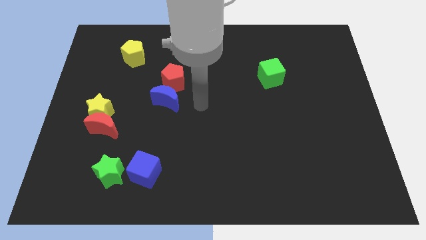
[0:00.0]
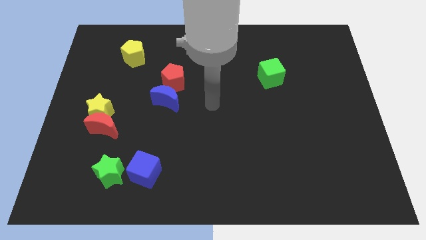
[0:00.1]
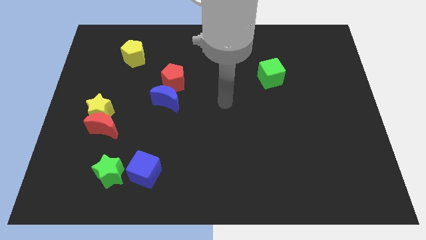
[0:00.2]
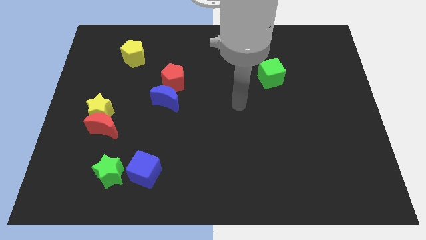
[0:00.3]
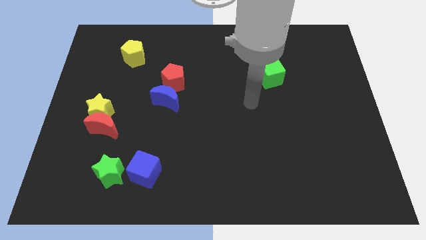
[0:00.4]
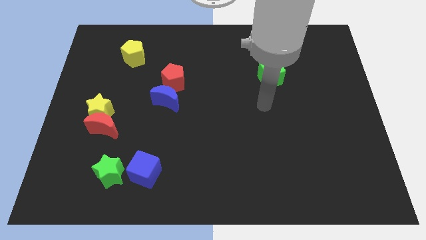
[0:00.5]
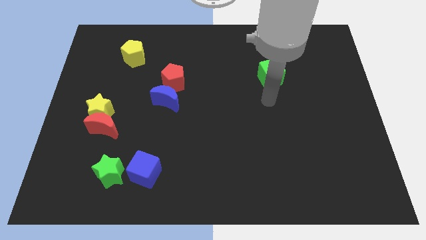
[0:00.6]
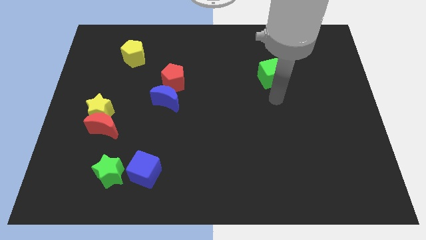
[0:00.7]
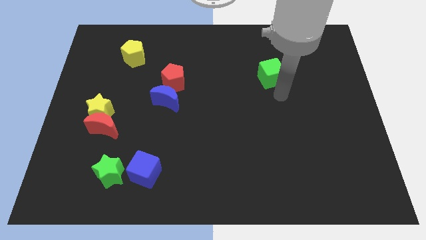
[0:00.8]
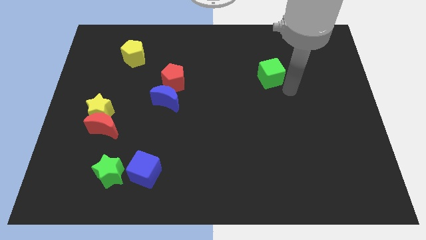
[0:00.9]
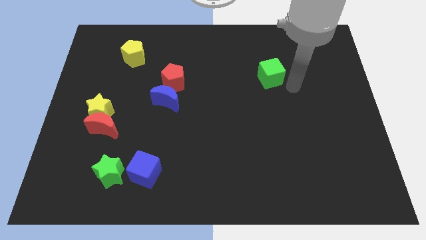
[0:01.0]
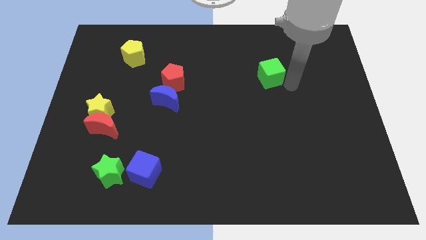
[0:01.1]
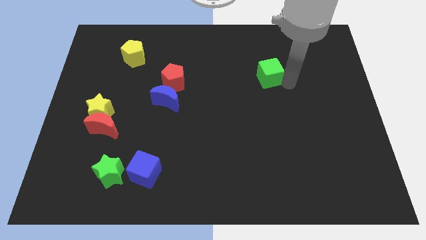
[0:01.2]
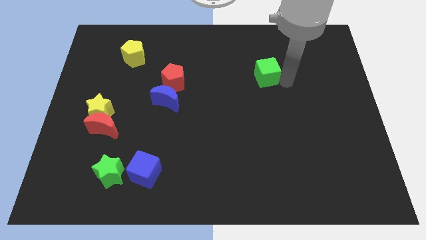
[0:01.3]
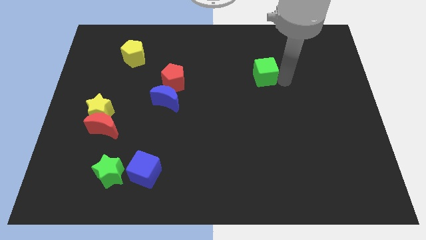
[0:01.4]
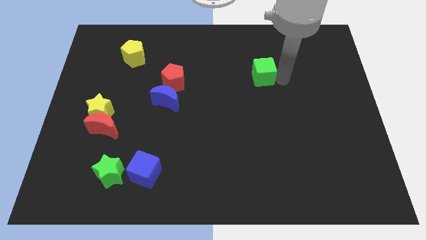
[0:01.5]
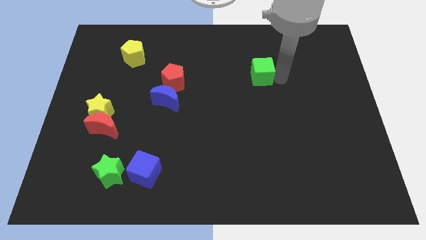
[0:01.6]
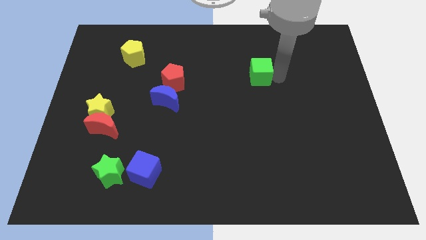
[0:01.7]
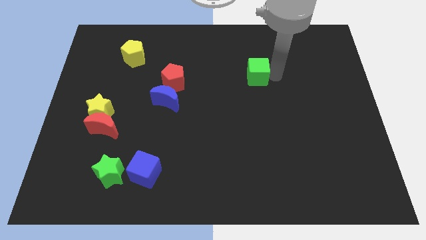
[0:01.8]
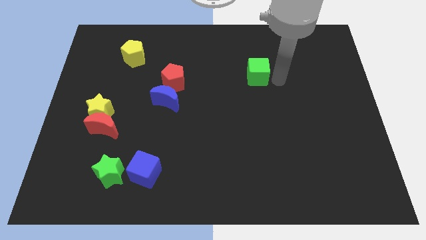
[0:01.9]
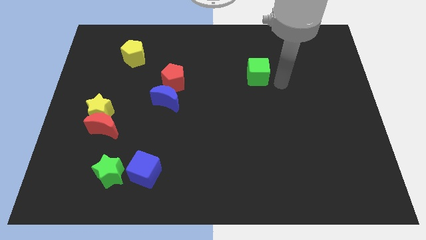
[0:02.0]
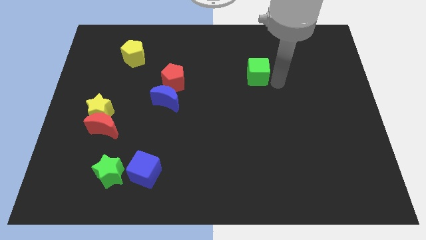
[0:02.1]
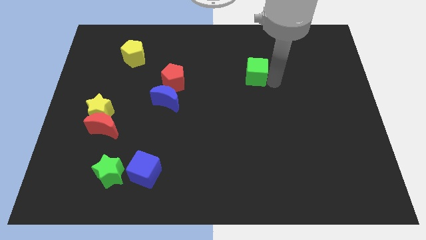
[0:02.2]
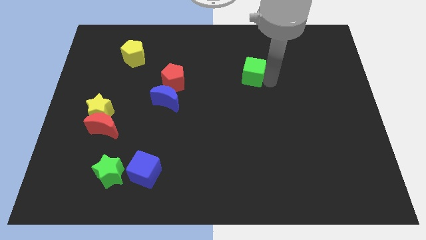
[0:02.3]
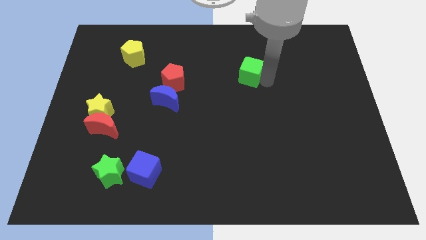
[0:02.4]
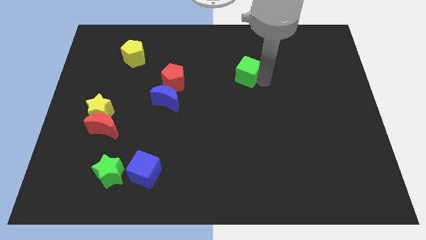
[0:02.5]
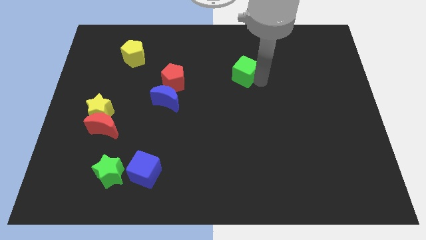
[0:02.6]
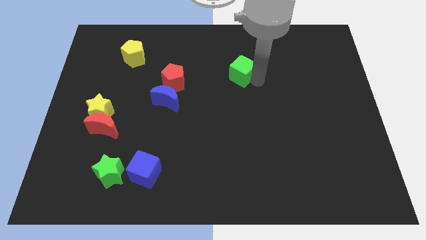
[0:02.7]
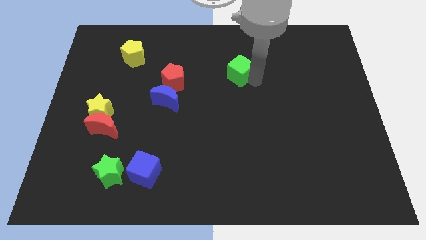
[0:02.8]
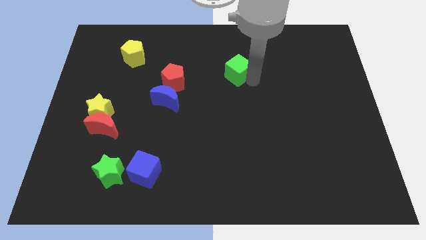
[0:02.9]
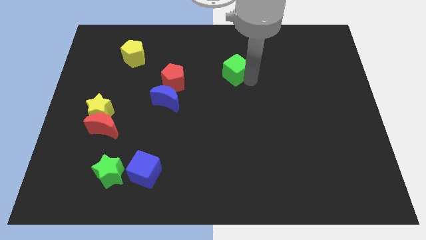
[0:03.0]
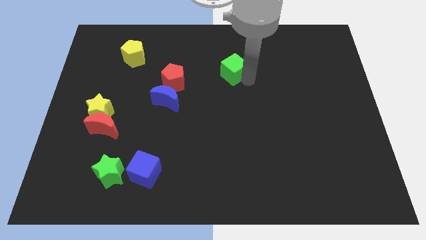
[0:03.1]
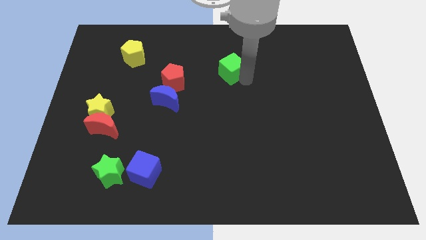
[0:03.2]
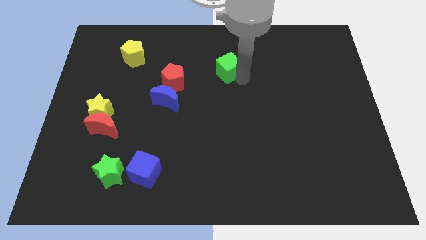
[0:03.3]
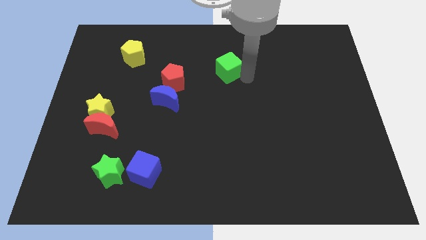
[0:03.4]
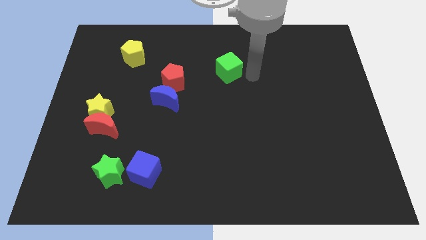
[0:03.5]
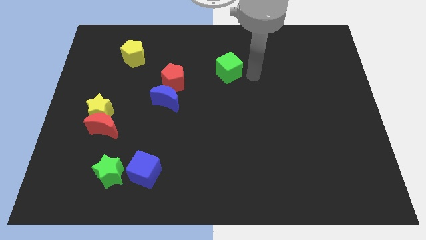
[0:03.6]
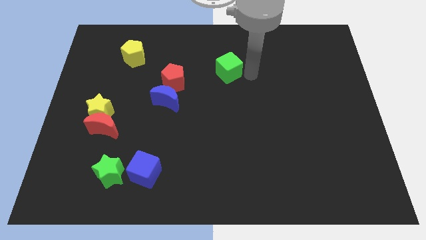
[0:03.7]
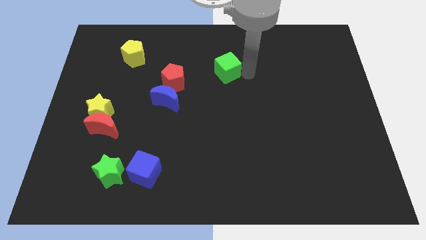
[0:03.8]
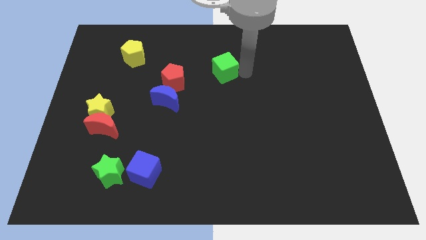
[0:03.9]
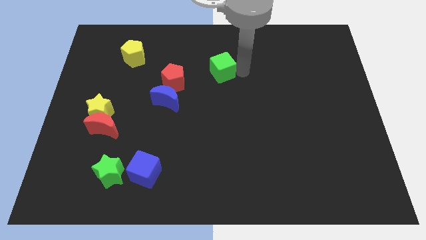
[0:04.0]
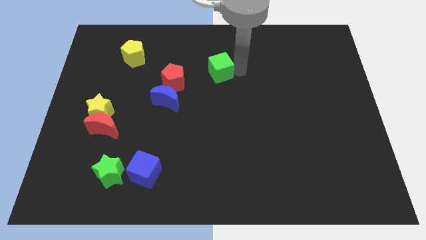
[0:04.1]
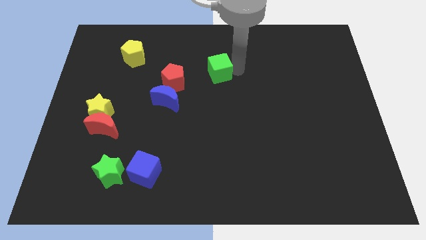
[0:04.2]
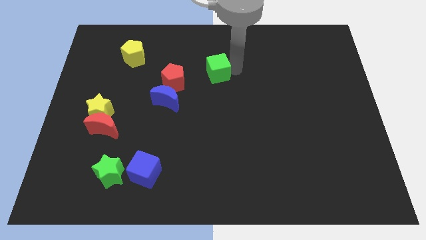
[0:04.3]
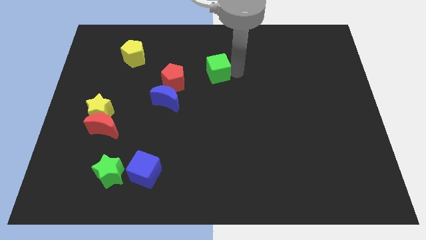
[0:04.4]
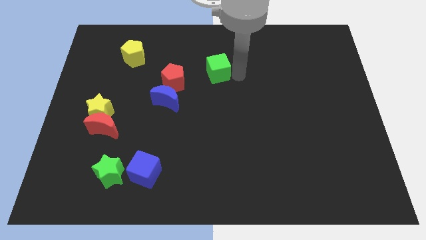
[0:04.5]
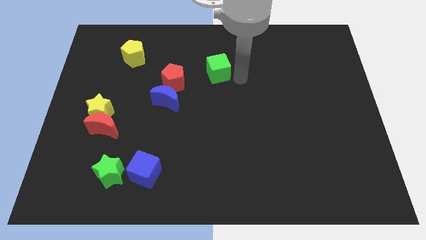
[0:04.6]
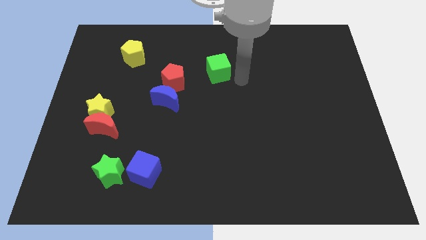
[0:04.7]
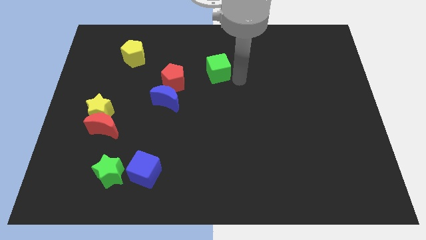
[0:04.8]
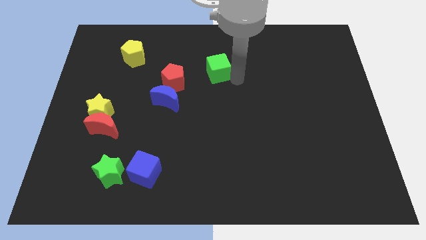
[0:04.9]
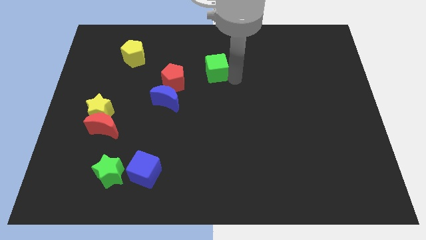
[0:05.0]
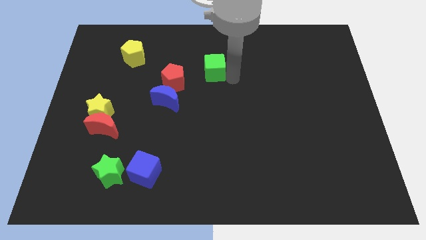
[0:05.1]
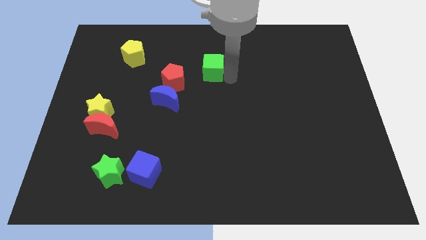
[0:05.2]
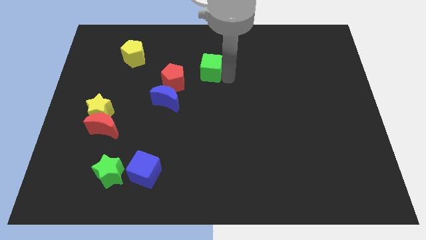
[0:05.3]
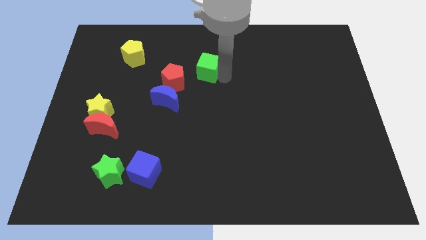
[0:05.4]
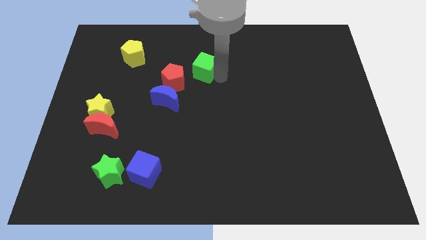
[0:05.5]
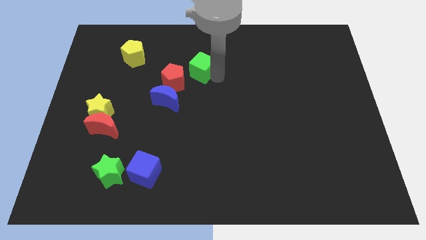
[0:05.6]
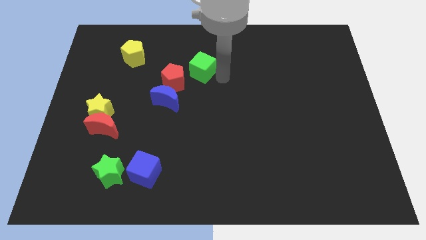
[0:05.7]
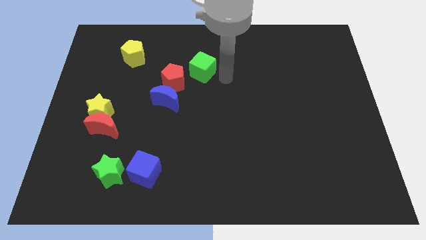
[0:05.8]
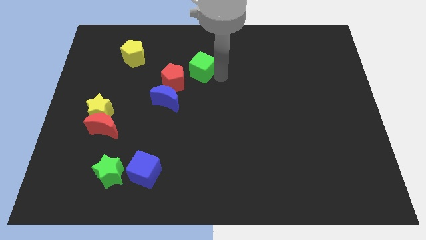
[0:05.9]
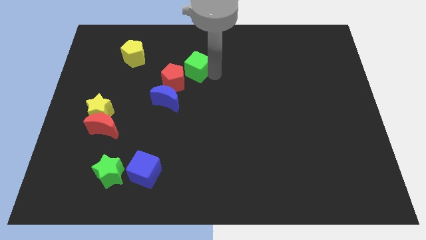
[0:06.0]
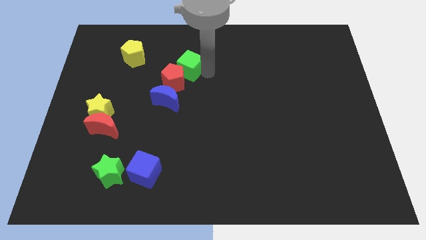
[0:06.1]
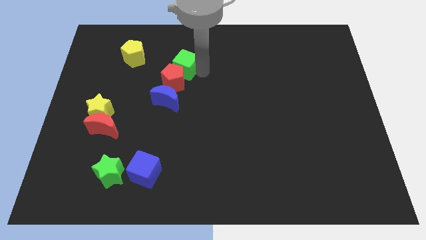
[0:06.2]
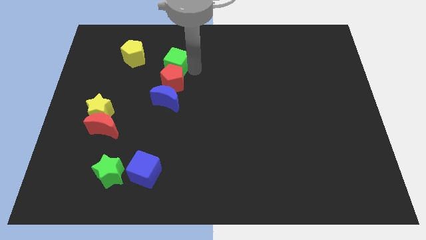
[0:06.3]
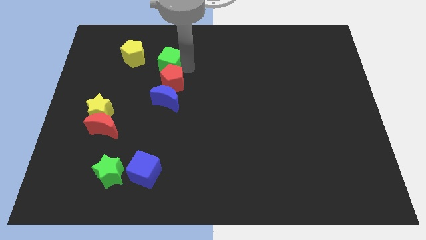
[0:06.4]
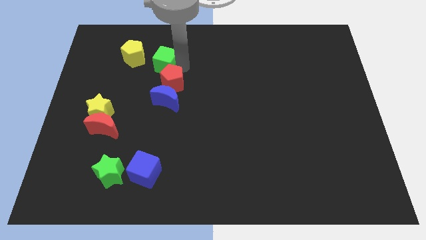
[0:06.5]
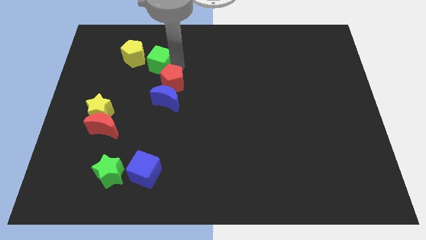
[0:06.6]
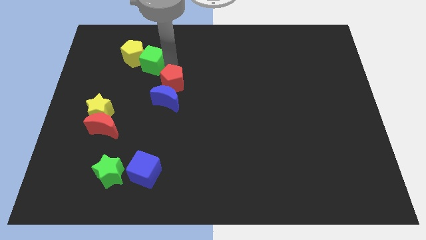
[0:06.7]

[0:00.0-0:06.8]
push the green cube towards the yellow pentagon

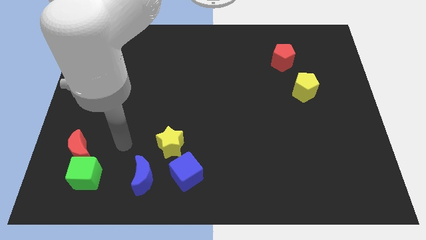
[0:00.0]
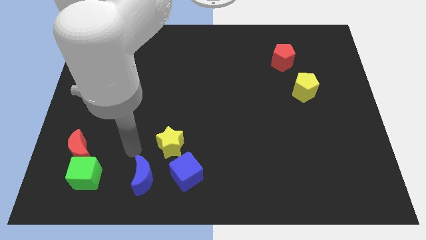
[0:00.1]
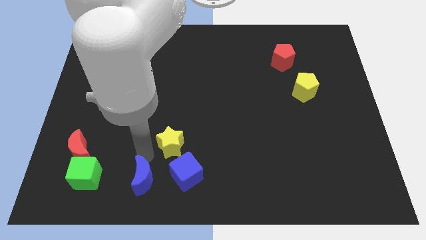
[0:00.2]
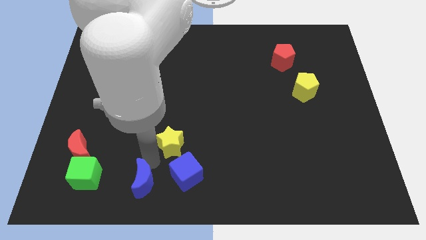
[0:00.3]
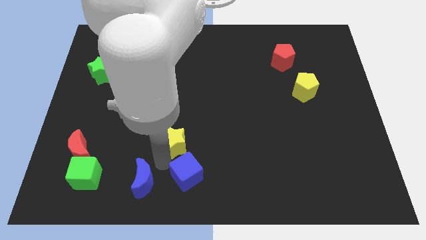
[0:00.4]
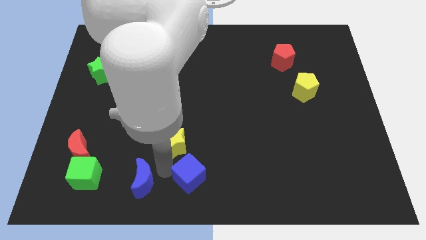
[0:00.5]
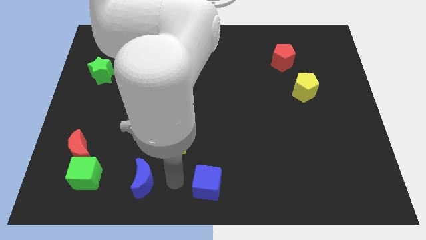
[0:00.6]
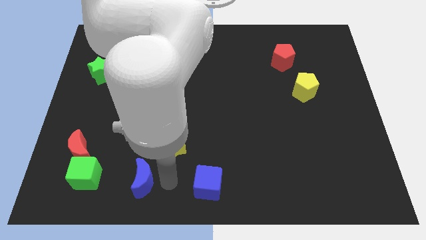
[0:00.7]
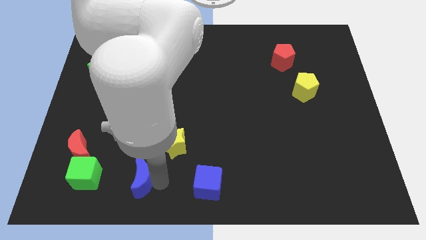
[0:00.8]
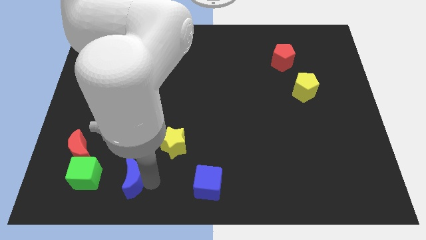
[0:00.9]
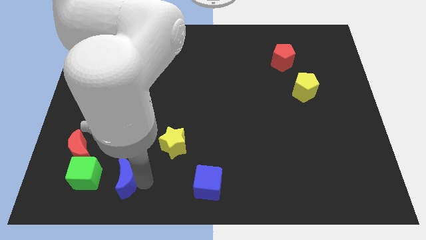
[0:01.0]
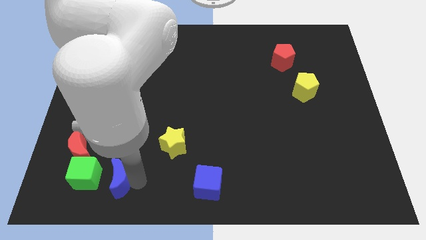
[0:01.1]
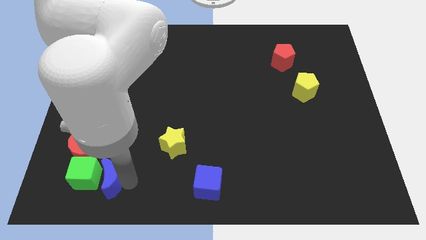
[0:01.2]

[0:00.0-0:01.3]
slide the blue moon to the green cube
